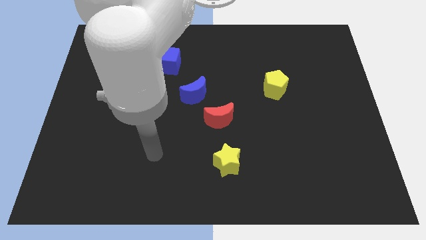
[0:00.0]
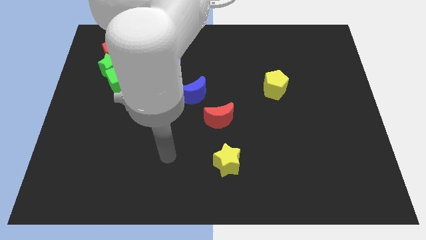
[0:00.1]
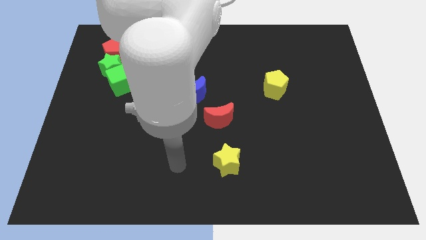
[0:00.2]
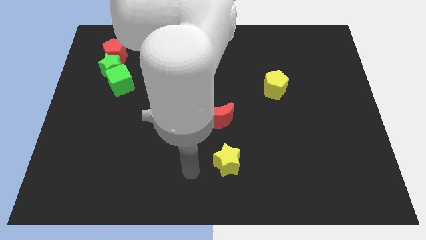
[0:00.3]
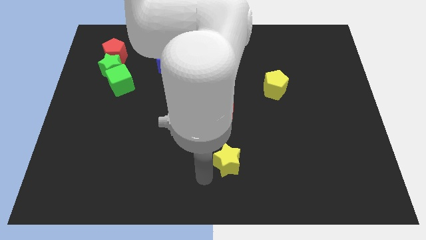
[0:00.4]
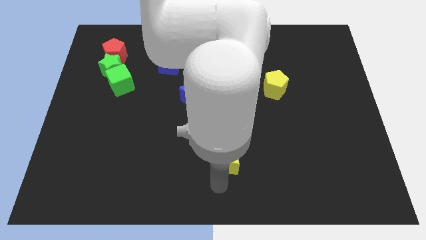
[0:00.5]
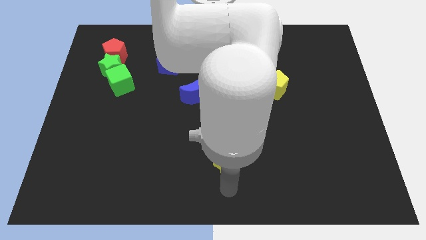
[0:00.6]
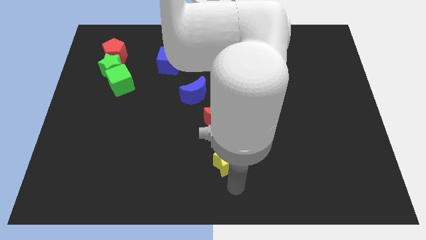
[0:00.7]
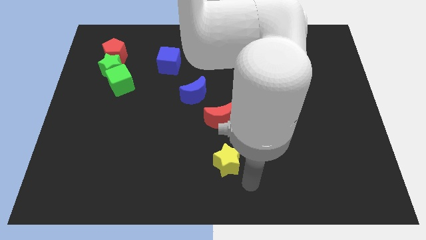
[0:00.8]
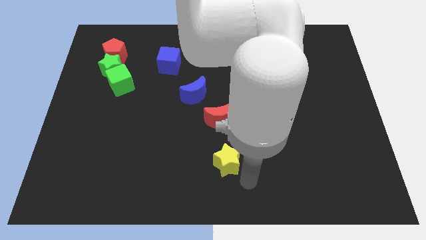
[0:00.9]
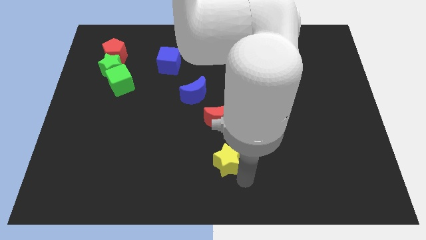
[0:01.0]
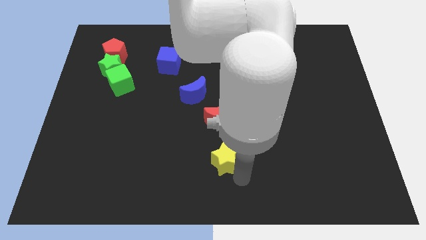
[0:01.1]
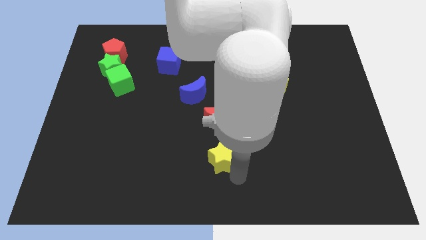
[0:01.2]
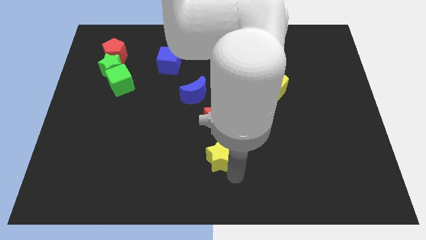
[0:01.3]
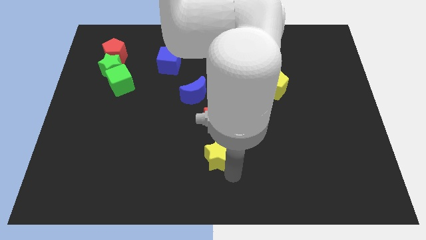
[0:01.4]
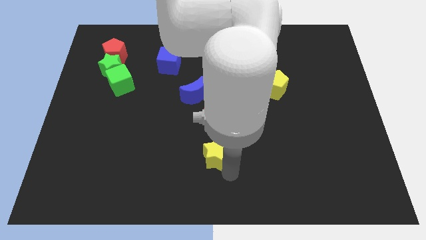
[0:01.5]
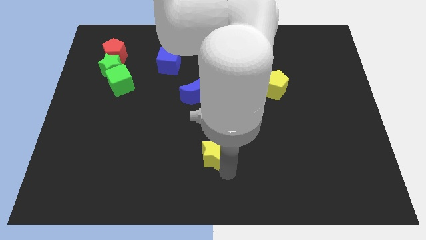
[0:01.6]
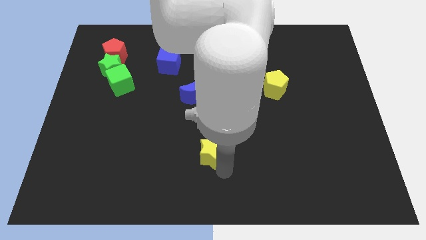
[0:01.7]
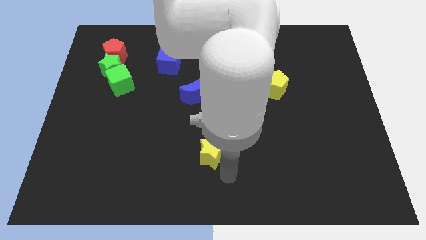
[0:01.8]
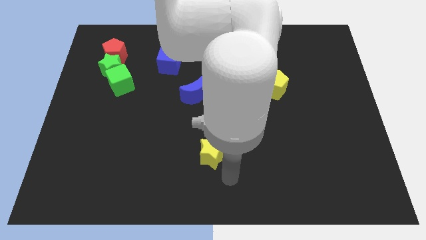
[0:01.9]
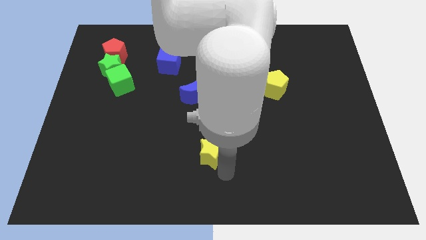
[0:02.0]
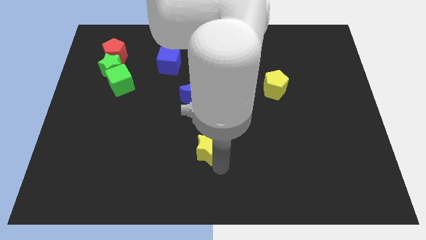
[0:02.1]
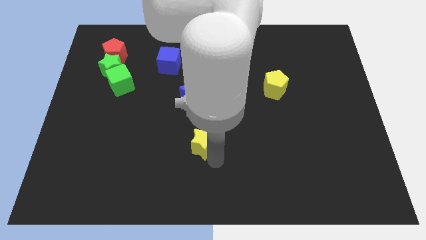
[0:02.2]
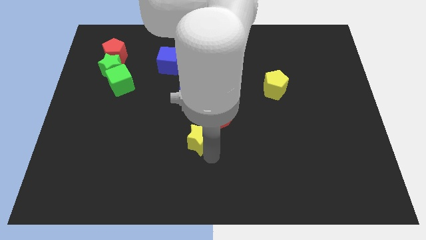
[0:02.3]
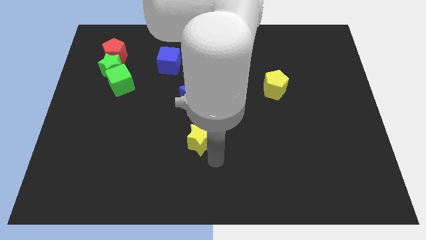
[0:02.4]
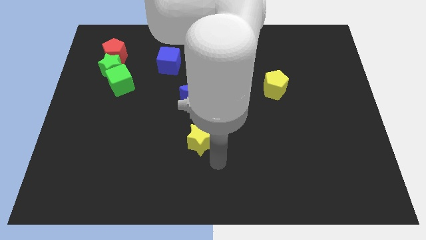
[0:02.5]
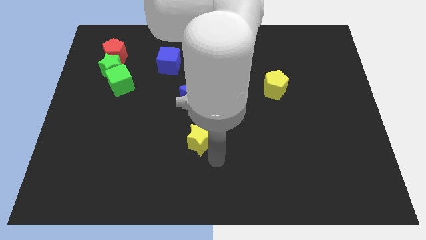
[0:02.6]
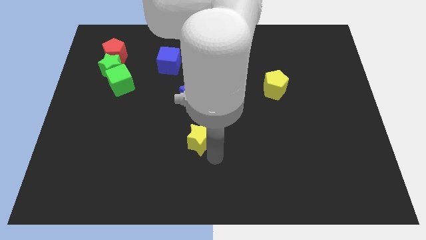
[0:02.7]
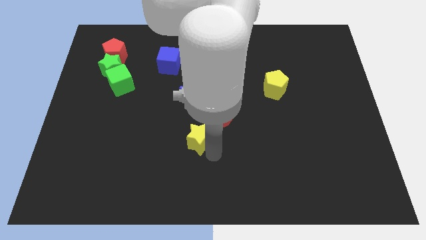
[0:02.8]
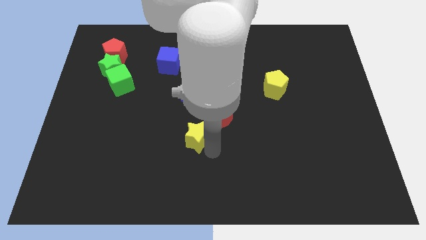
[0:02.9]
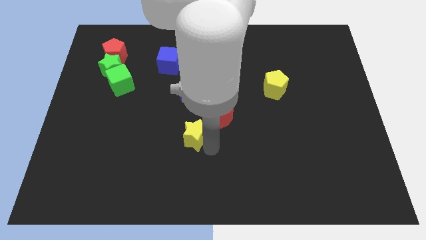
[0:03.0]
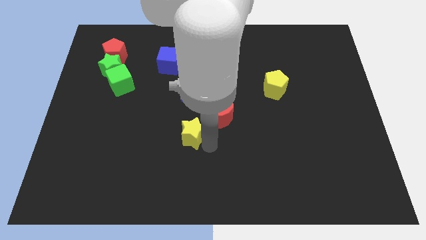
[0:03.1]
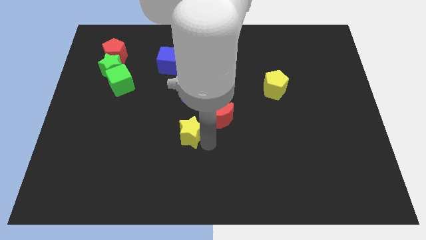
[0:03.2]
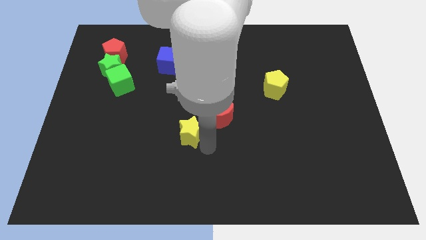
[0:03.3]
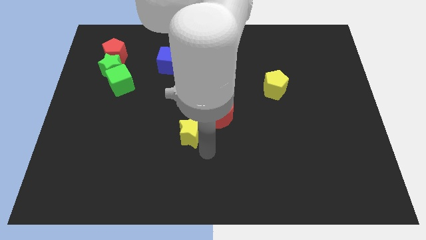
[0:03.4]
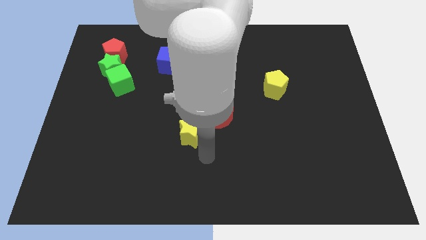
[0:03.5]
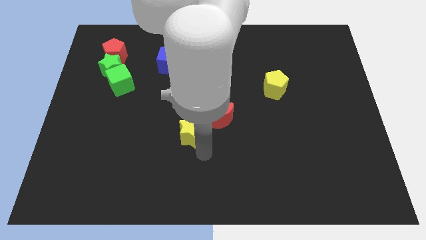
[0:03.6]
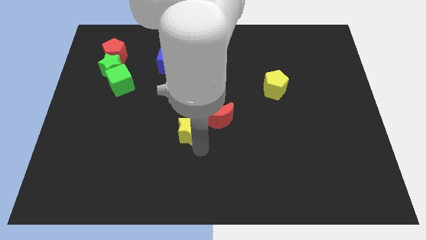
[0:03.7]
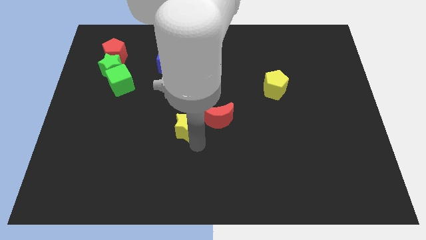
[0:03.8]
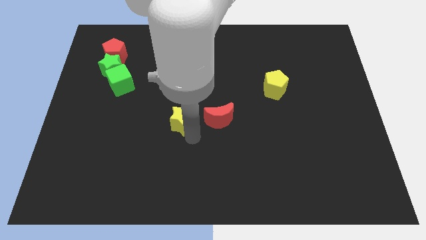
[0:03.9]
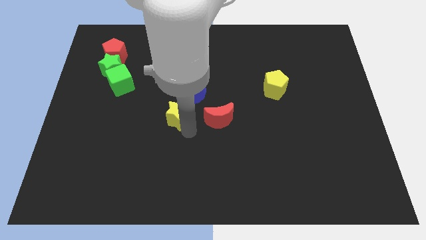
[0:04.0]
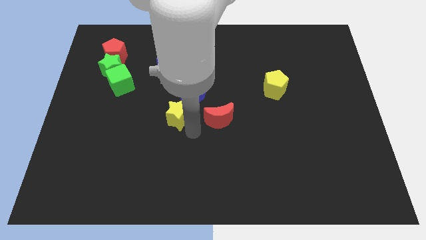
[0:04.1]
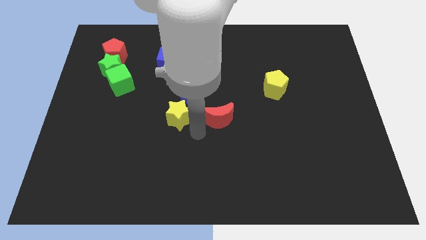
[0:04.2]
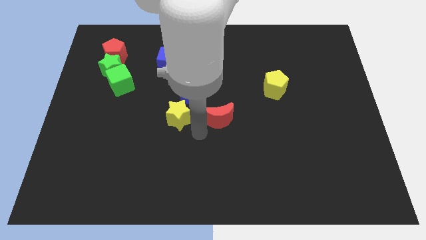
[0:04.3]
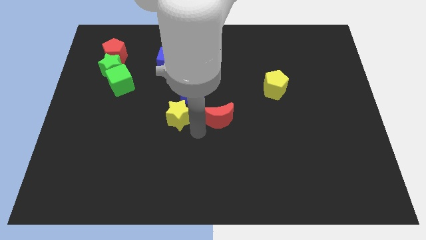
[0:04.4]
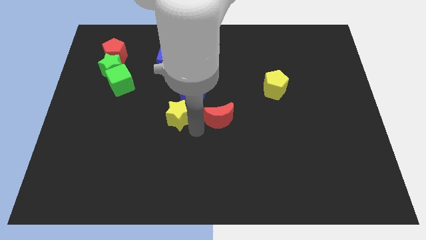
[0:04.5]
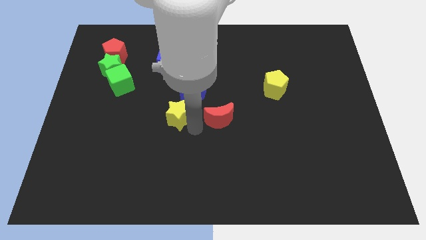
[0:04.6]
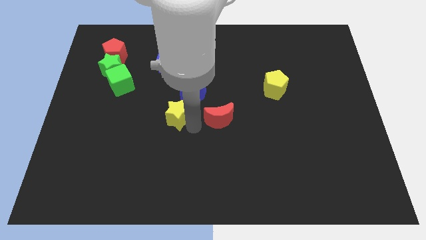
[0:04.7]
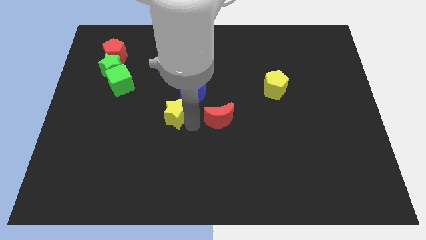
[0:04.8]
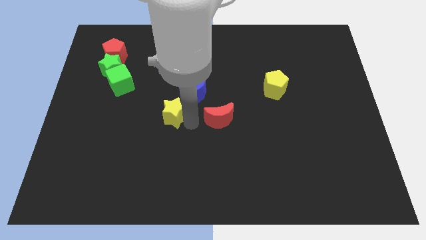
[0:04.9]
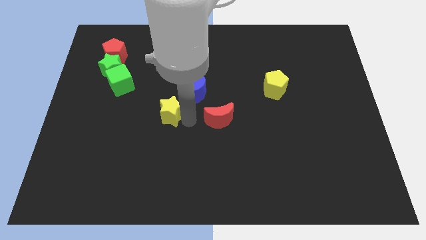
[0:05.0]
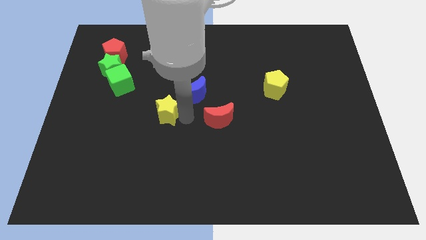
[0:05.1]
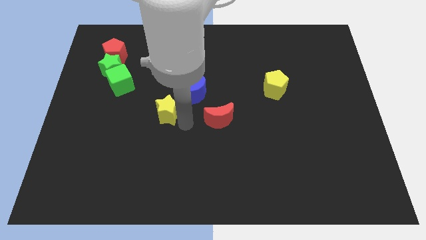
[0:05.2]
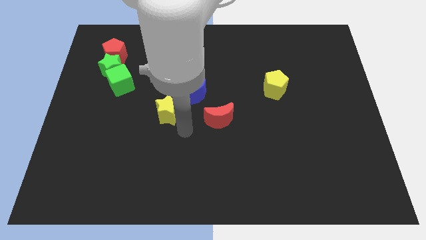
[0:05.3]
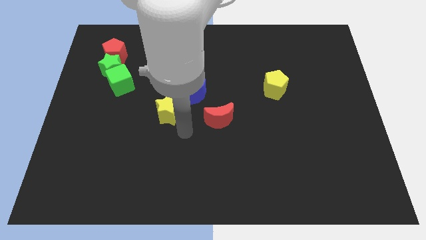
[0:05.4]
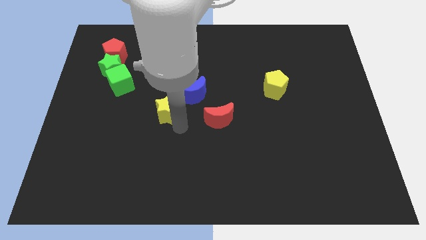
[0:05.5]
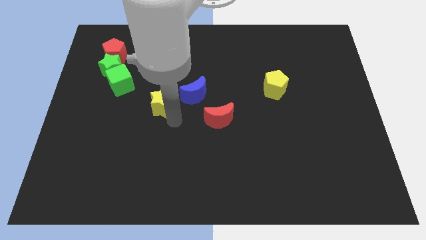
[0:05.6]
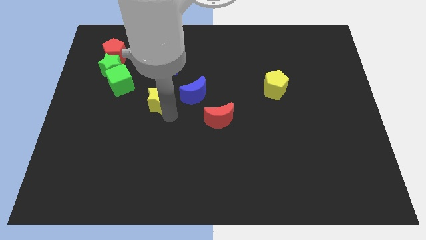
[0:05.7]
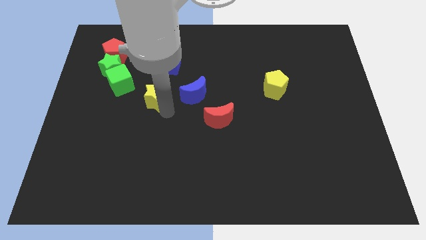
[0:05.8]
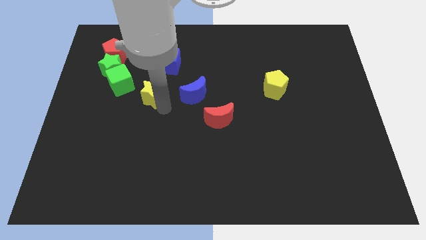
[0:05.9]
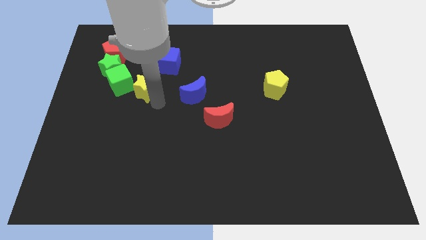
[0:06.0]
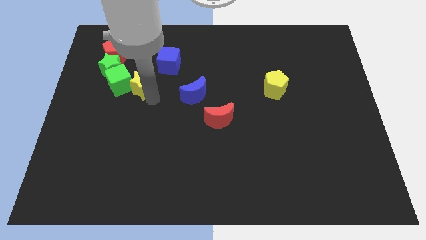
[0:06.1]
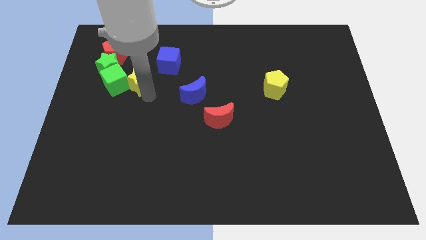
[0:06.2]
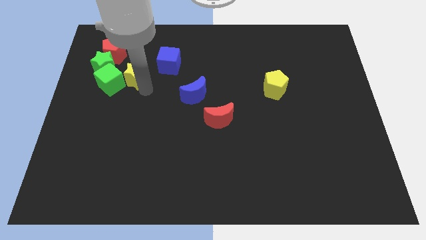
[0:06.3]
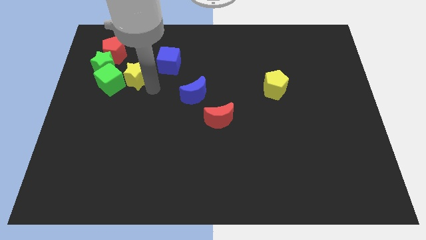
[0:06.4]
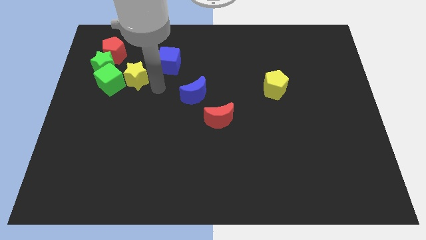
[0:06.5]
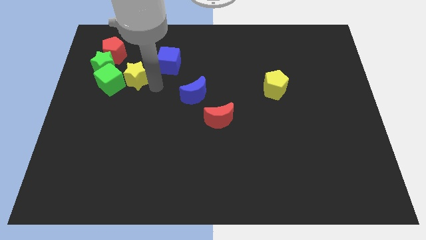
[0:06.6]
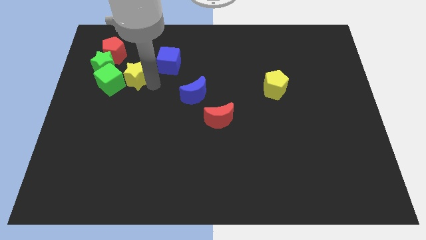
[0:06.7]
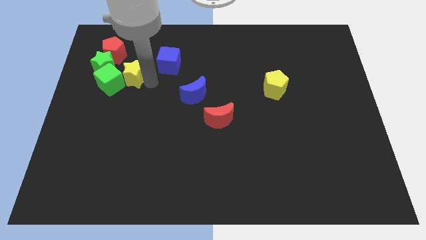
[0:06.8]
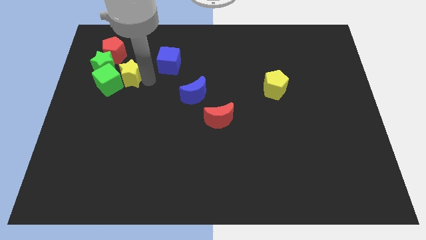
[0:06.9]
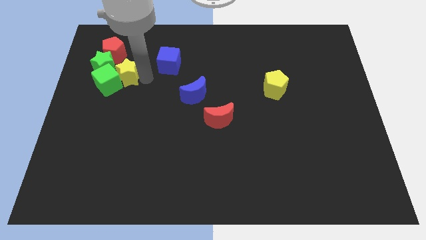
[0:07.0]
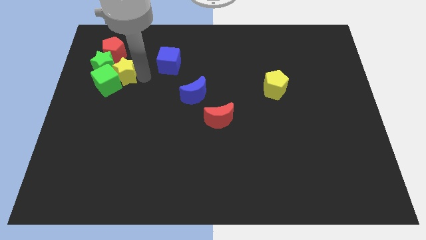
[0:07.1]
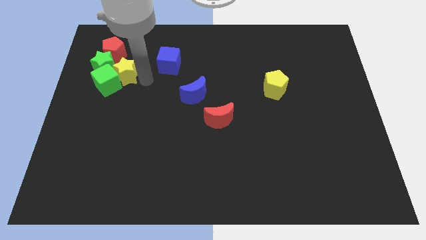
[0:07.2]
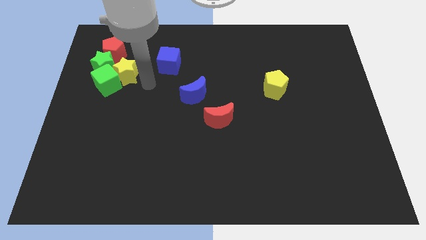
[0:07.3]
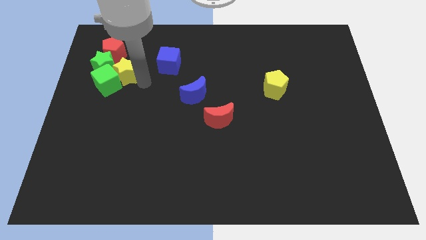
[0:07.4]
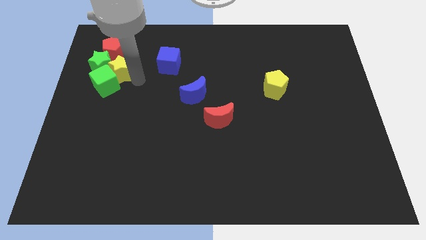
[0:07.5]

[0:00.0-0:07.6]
put the yellow star to the green star

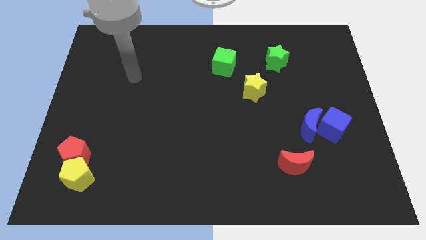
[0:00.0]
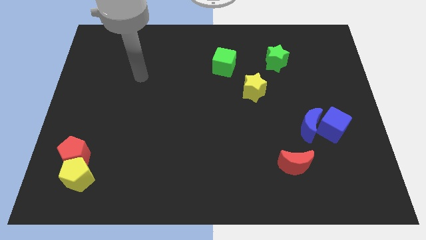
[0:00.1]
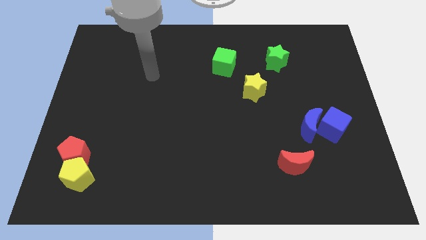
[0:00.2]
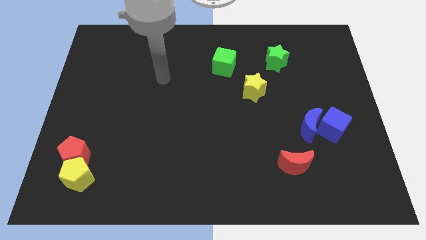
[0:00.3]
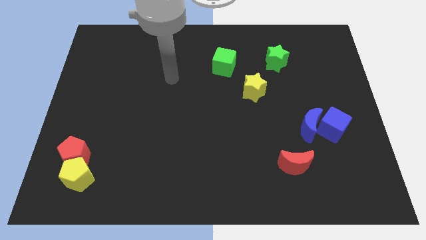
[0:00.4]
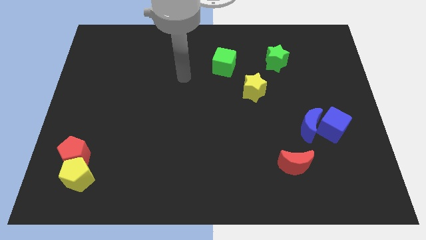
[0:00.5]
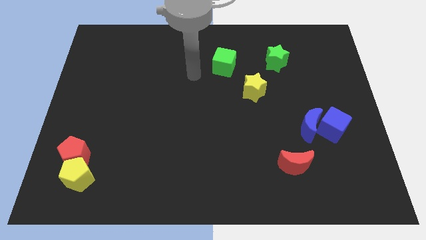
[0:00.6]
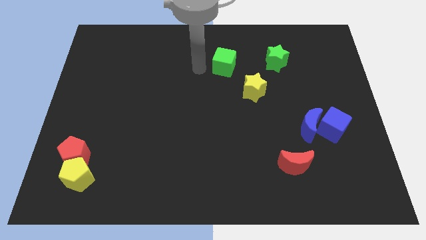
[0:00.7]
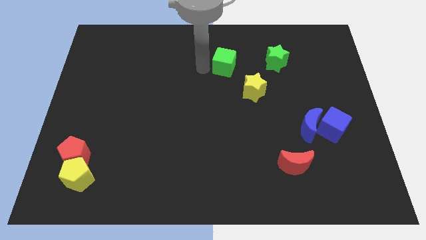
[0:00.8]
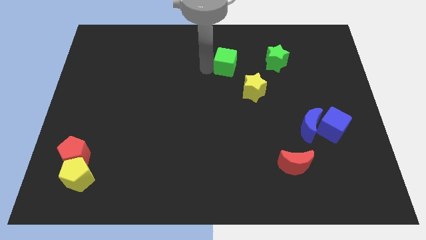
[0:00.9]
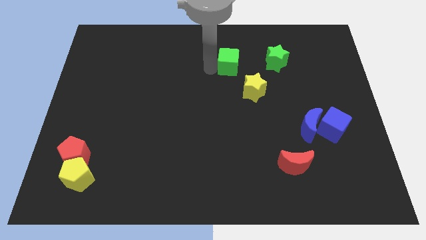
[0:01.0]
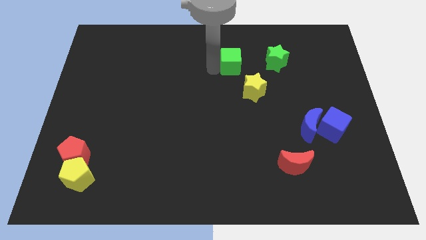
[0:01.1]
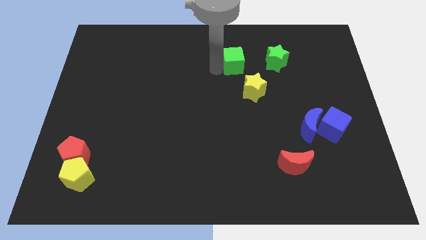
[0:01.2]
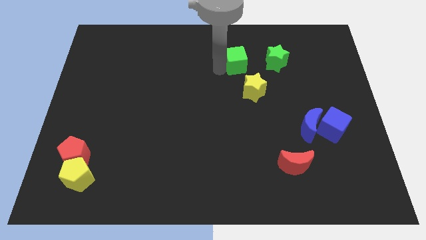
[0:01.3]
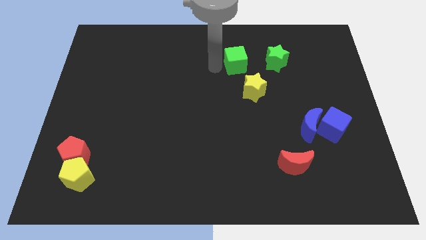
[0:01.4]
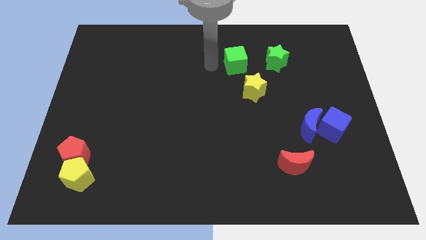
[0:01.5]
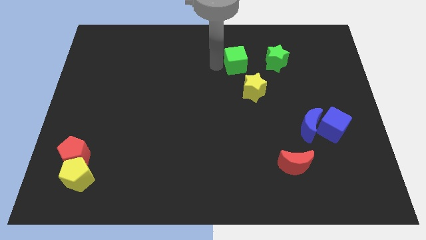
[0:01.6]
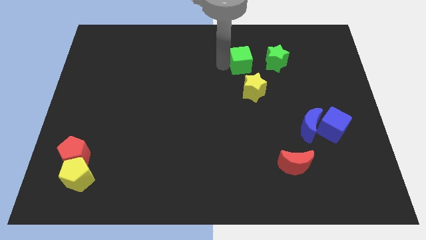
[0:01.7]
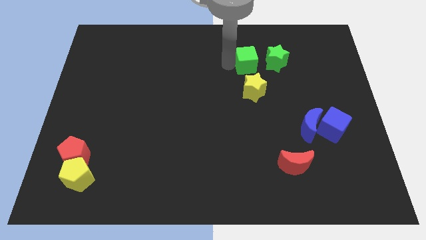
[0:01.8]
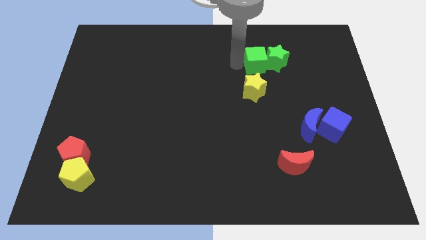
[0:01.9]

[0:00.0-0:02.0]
slide the green cube close to the green star
